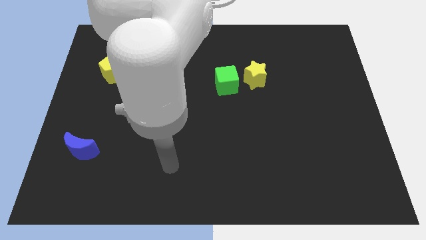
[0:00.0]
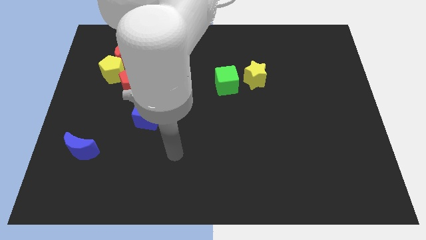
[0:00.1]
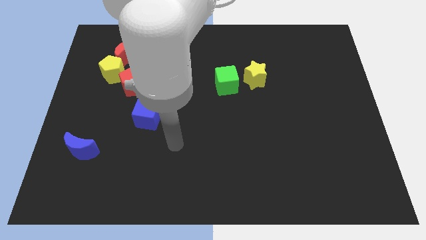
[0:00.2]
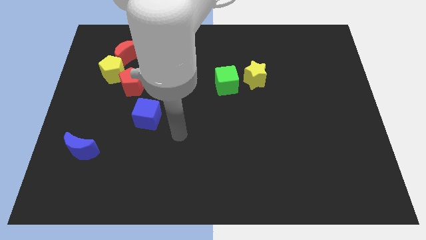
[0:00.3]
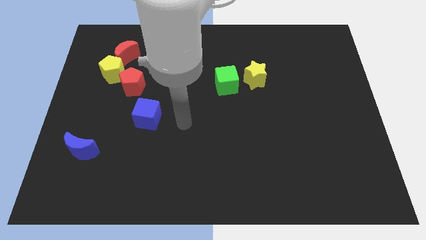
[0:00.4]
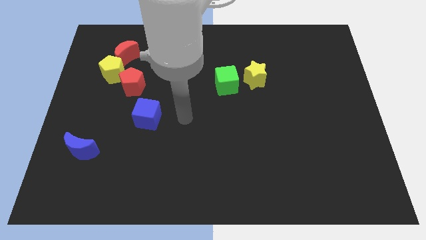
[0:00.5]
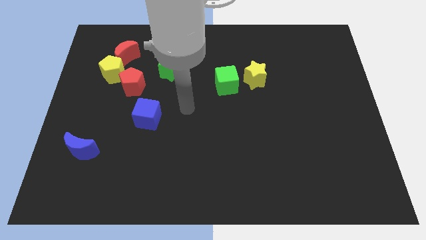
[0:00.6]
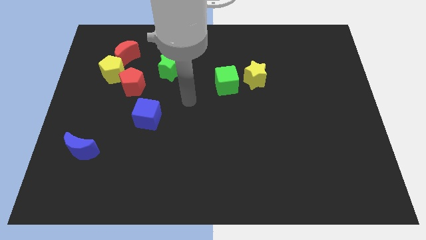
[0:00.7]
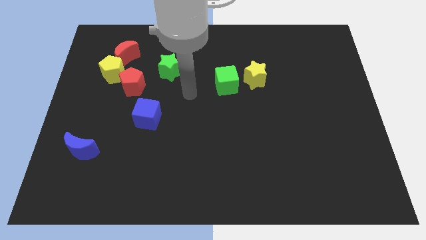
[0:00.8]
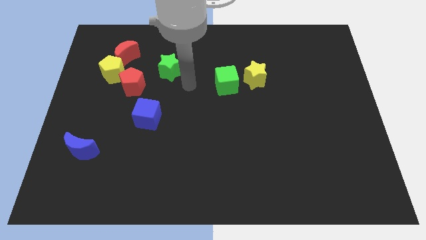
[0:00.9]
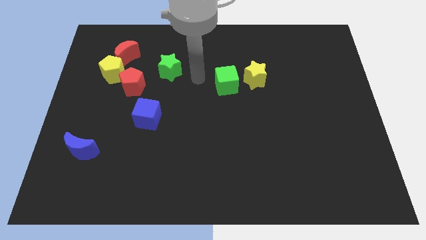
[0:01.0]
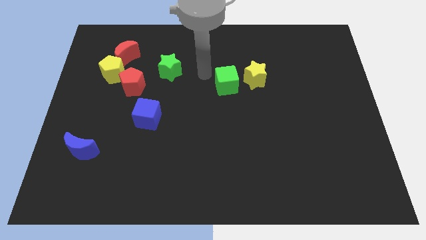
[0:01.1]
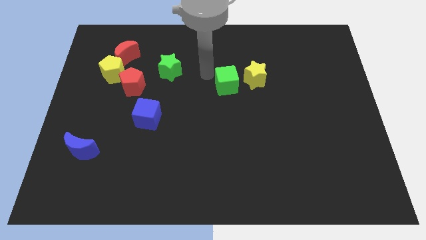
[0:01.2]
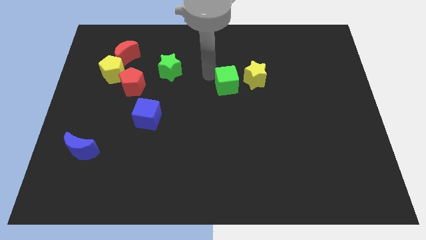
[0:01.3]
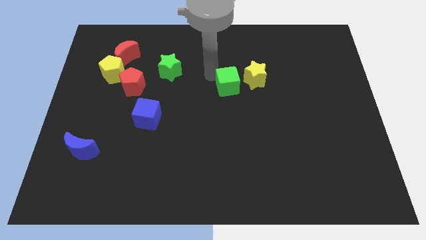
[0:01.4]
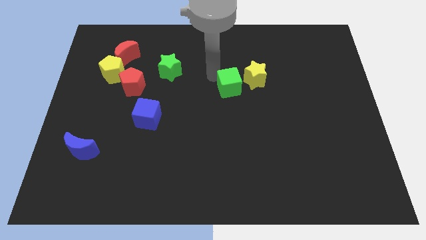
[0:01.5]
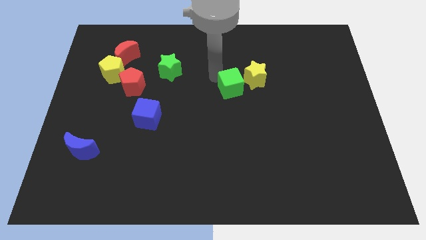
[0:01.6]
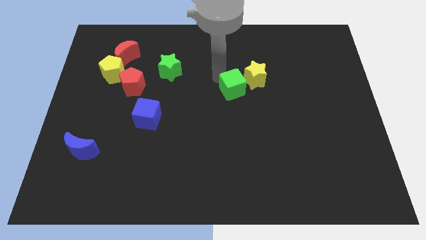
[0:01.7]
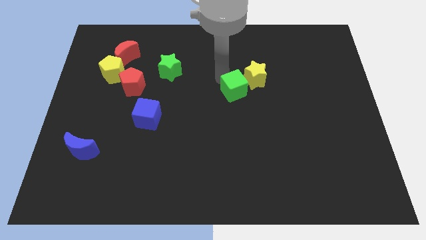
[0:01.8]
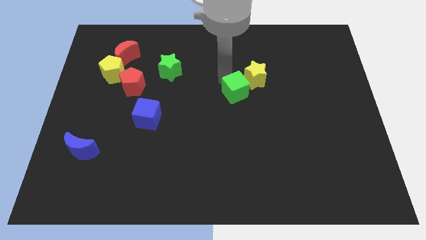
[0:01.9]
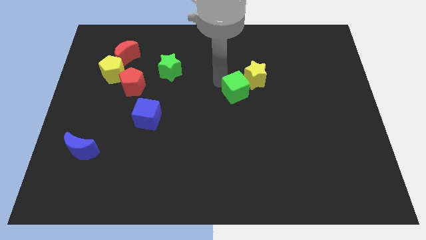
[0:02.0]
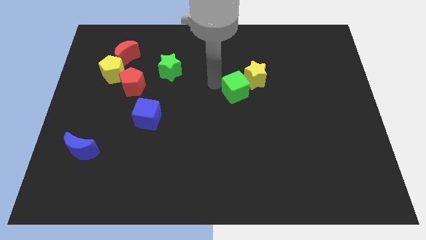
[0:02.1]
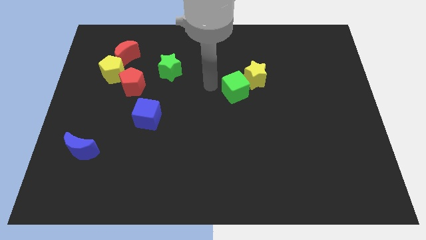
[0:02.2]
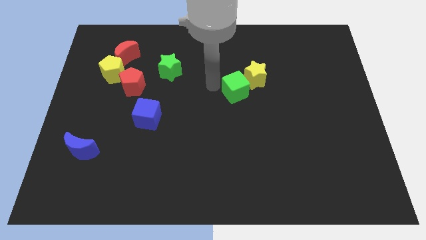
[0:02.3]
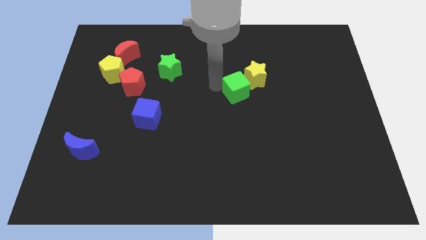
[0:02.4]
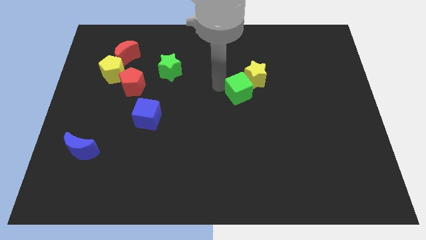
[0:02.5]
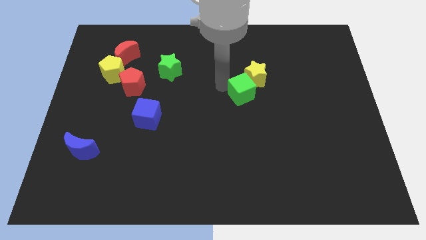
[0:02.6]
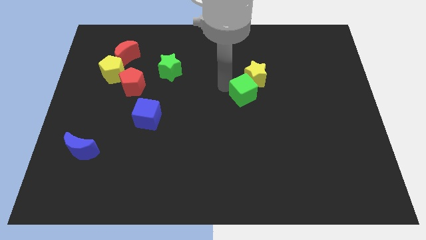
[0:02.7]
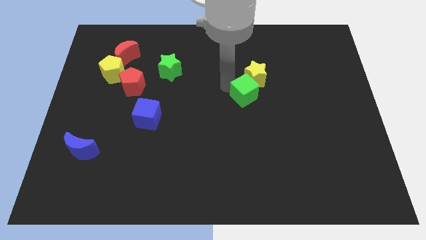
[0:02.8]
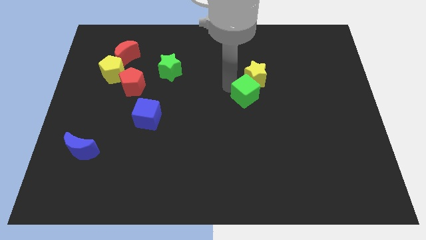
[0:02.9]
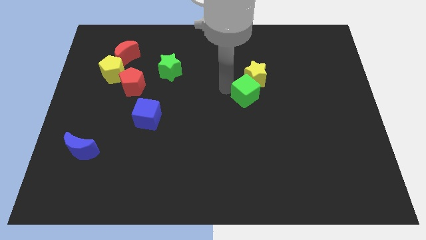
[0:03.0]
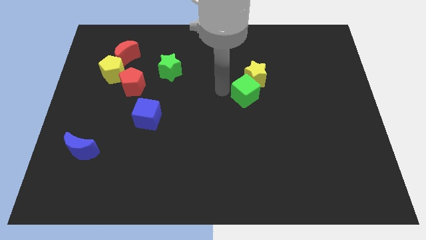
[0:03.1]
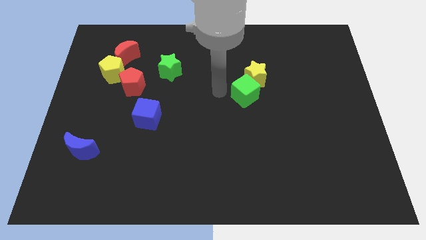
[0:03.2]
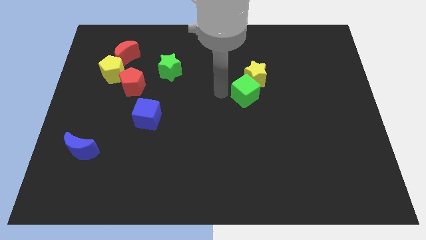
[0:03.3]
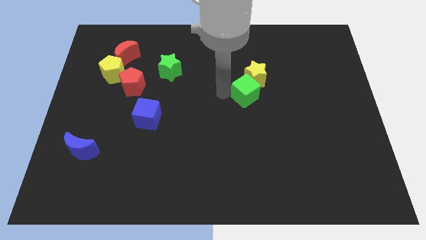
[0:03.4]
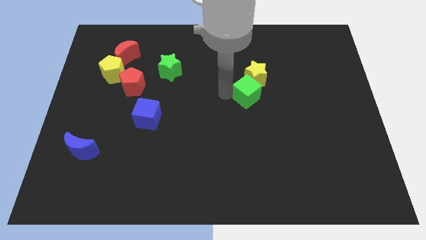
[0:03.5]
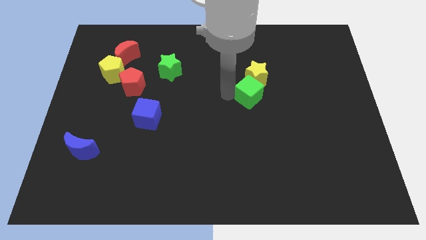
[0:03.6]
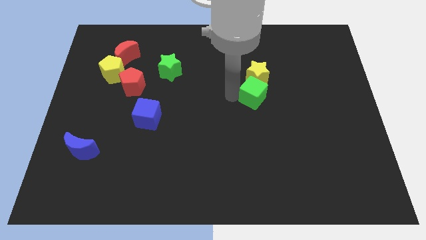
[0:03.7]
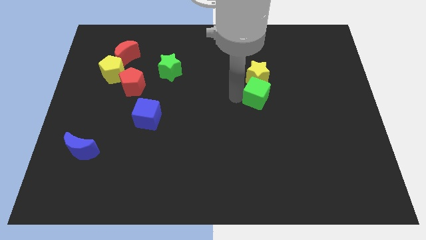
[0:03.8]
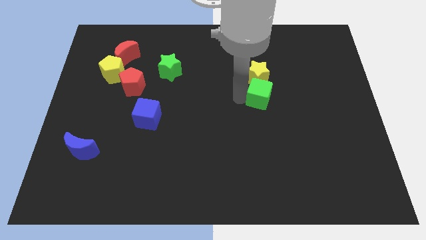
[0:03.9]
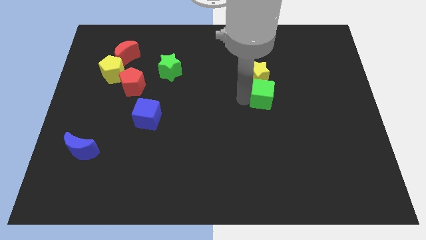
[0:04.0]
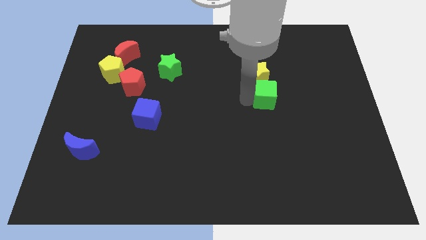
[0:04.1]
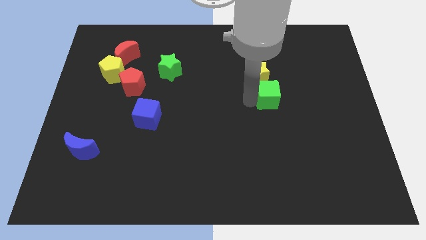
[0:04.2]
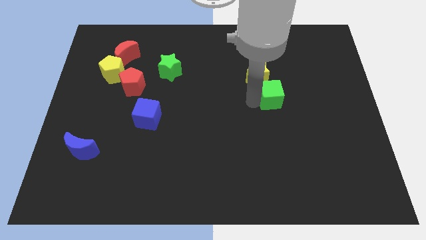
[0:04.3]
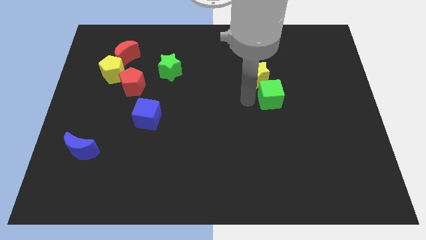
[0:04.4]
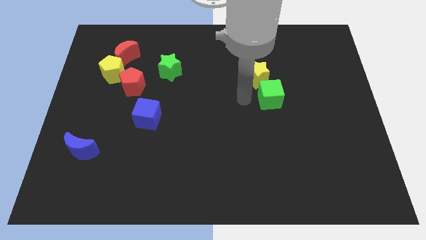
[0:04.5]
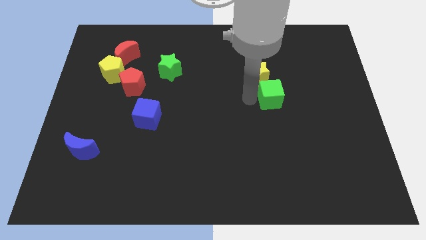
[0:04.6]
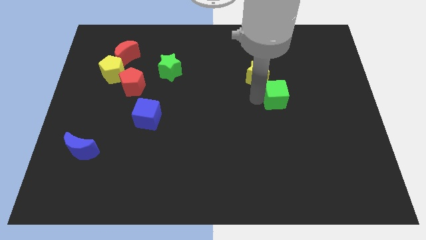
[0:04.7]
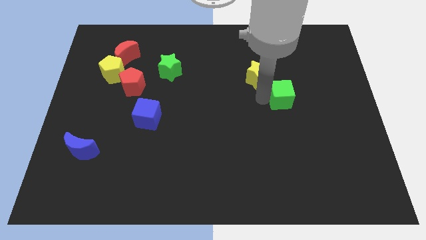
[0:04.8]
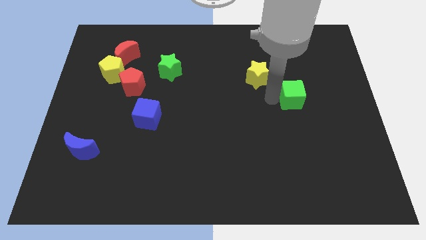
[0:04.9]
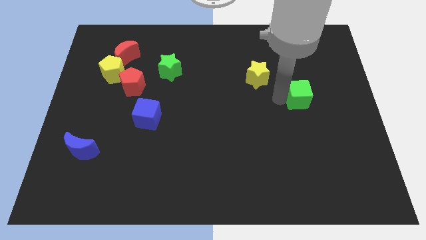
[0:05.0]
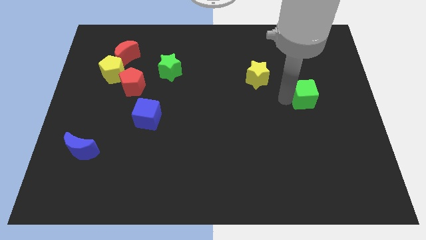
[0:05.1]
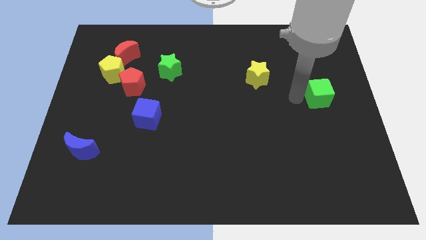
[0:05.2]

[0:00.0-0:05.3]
move the green cube to the center right

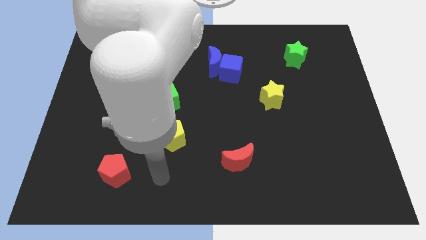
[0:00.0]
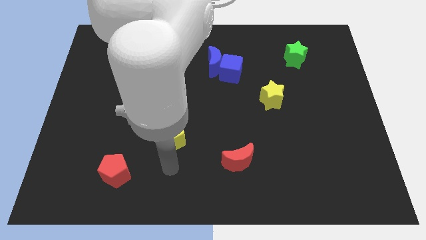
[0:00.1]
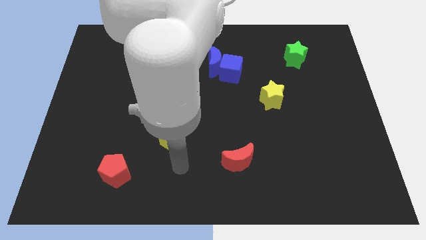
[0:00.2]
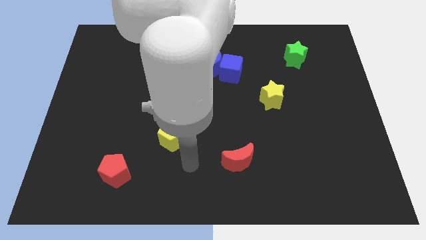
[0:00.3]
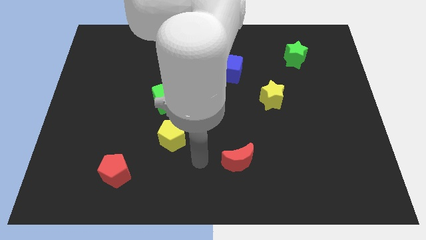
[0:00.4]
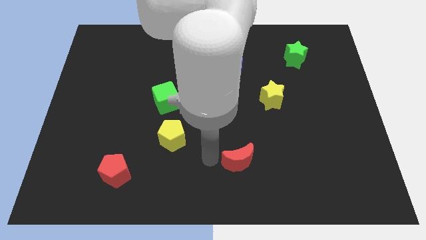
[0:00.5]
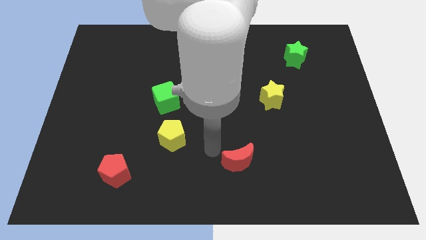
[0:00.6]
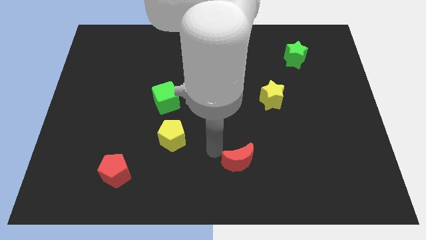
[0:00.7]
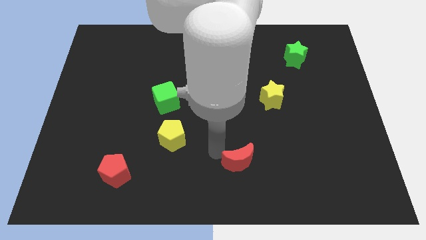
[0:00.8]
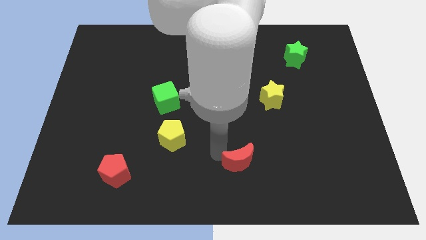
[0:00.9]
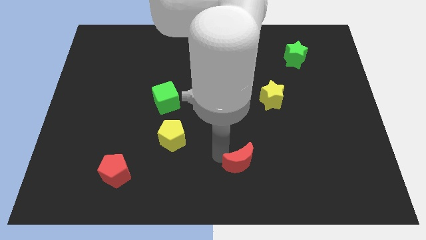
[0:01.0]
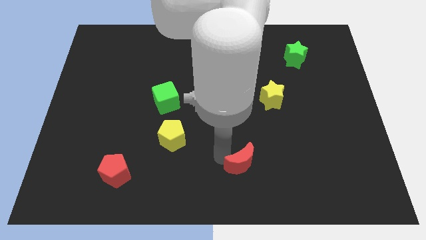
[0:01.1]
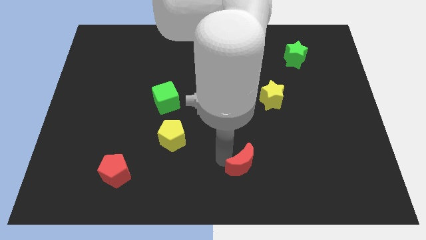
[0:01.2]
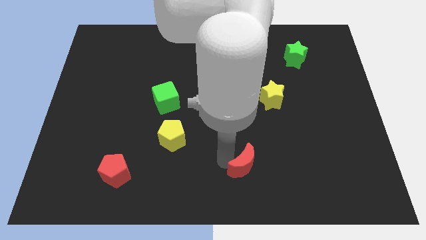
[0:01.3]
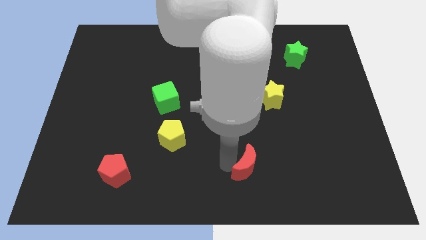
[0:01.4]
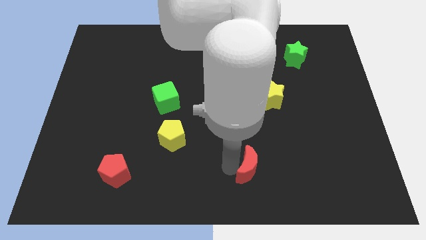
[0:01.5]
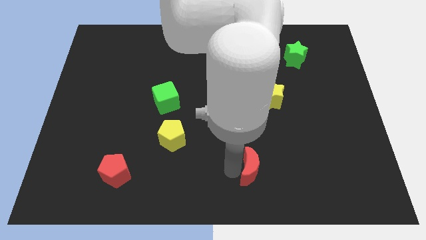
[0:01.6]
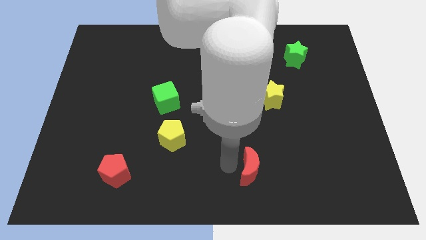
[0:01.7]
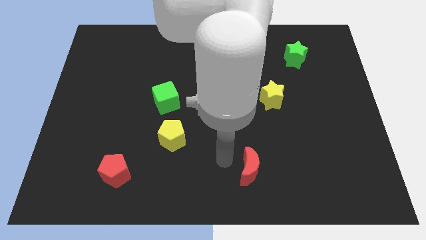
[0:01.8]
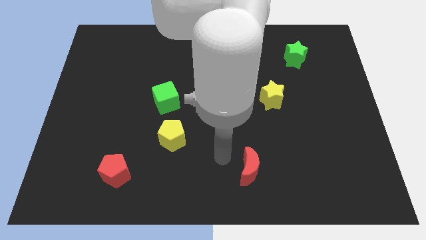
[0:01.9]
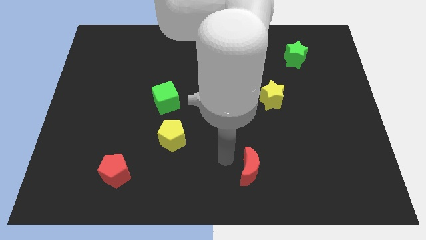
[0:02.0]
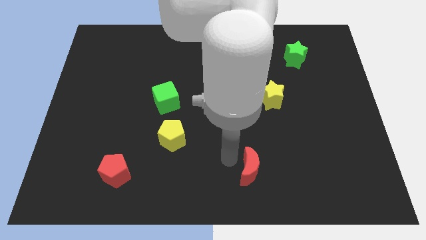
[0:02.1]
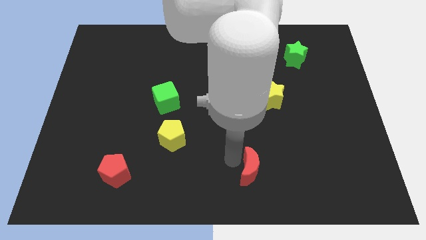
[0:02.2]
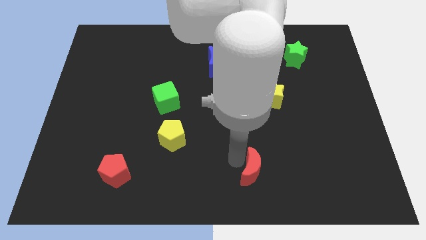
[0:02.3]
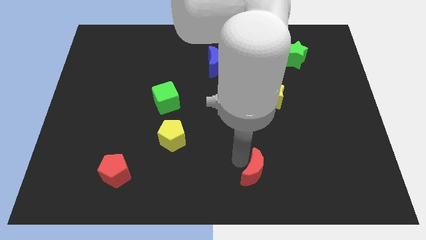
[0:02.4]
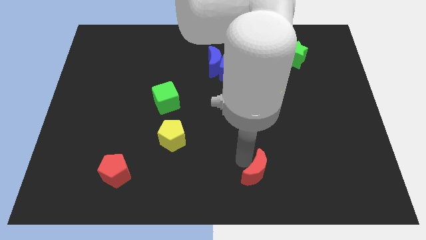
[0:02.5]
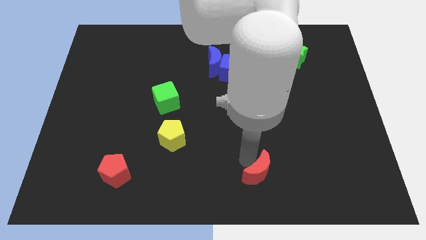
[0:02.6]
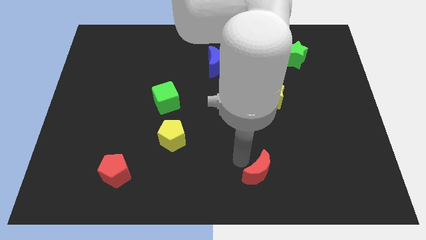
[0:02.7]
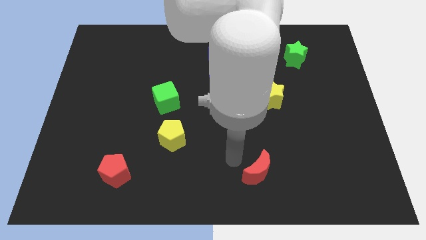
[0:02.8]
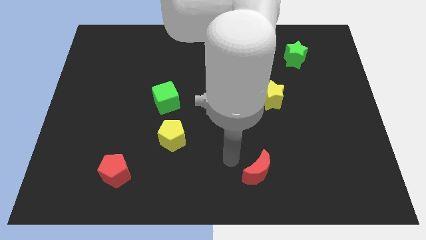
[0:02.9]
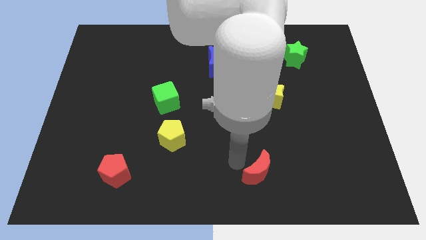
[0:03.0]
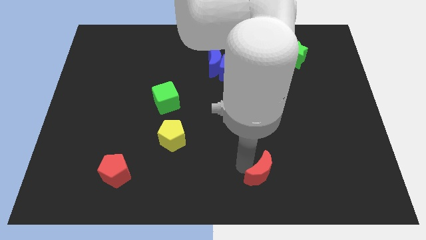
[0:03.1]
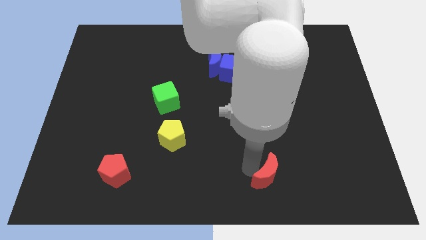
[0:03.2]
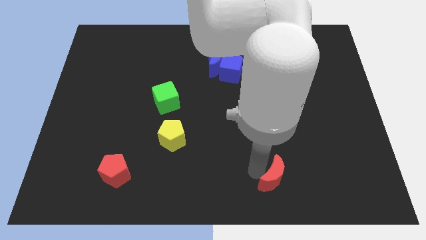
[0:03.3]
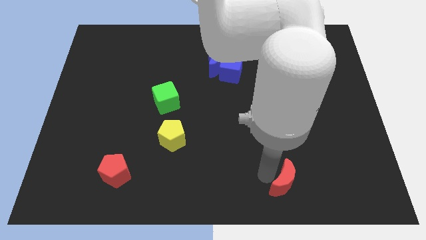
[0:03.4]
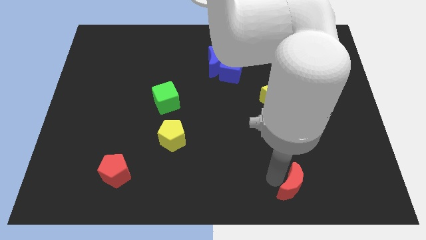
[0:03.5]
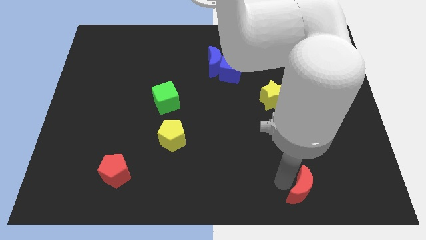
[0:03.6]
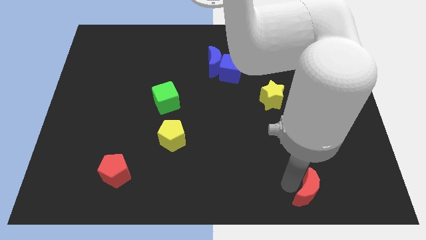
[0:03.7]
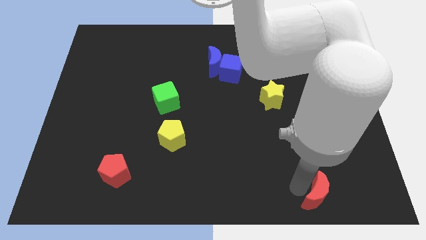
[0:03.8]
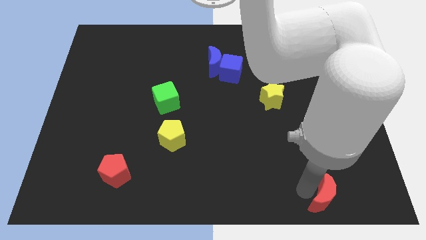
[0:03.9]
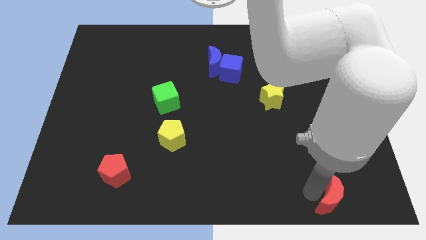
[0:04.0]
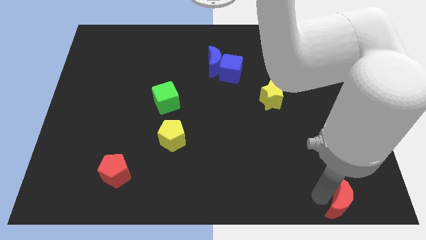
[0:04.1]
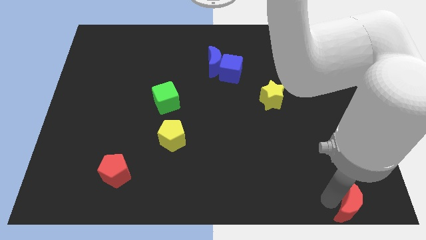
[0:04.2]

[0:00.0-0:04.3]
slide the red moon to the bottom right corner
